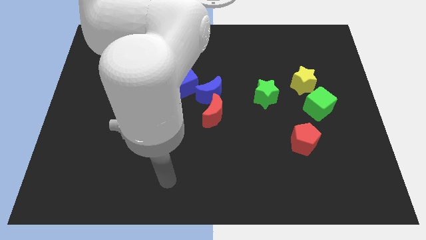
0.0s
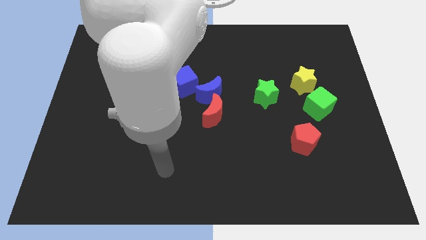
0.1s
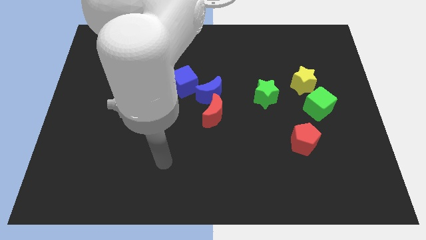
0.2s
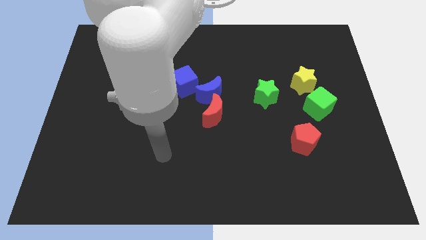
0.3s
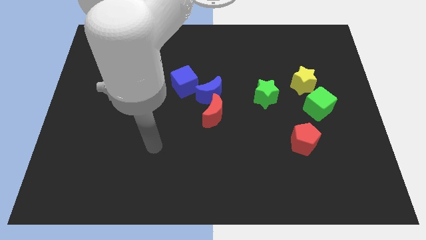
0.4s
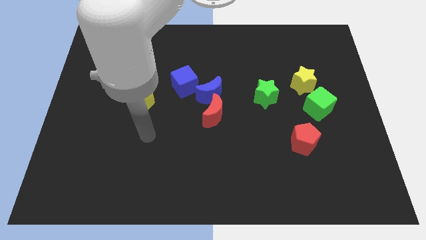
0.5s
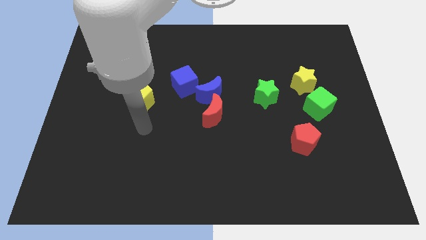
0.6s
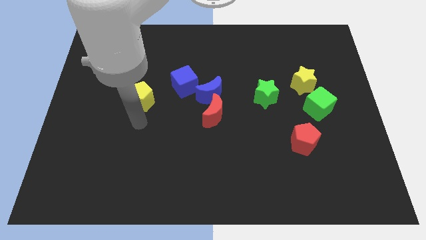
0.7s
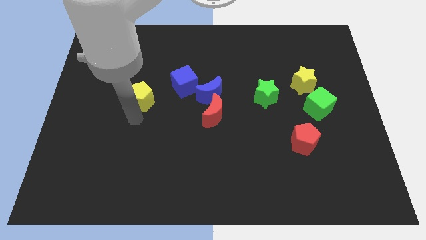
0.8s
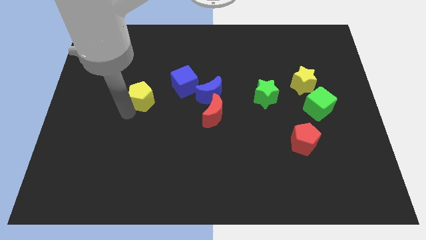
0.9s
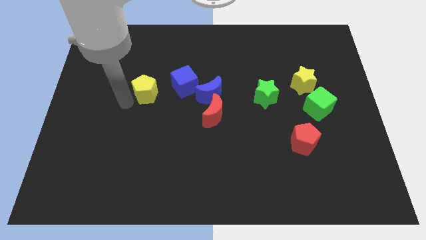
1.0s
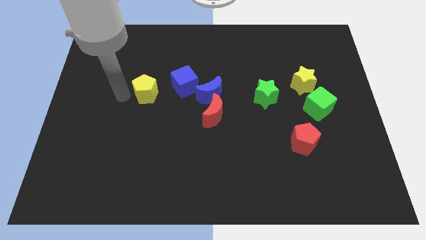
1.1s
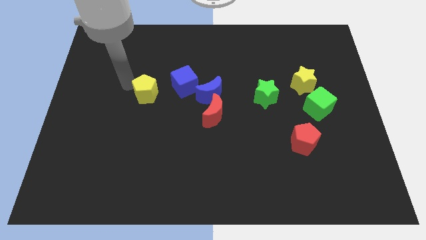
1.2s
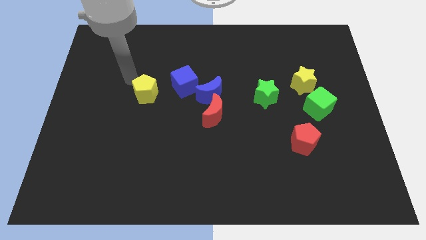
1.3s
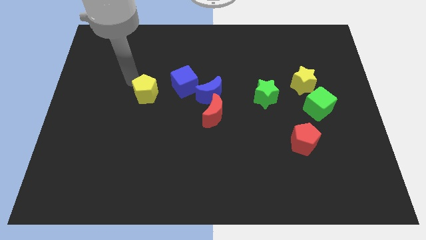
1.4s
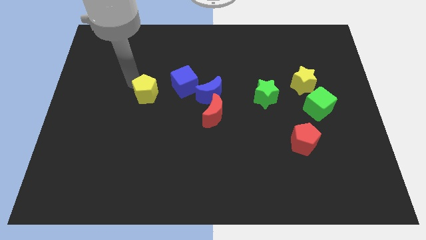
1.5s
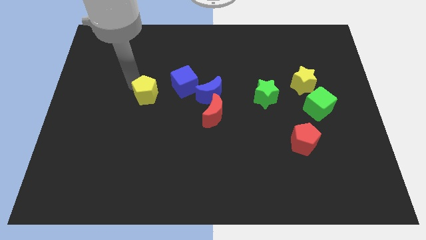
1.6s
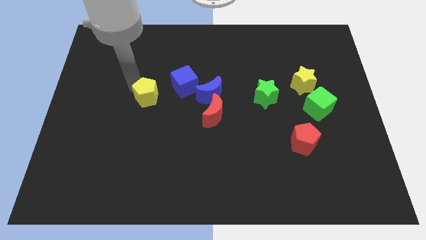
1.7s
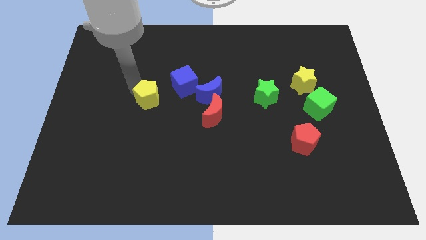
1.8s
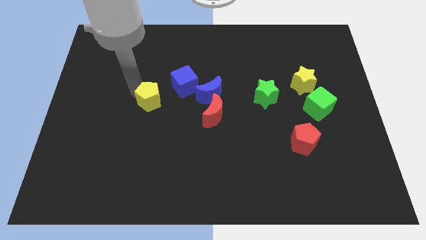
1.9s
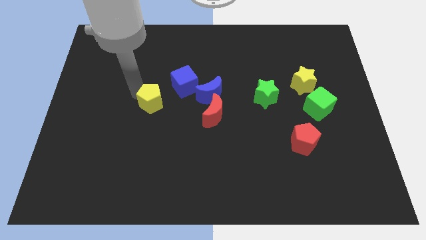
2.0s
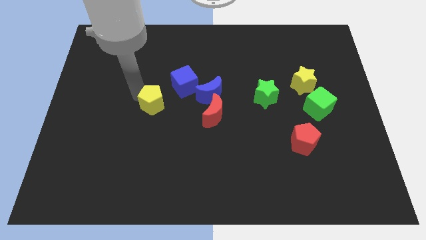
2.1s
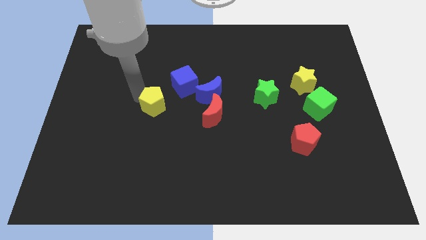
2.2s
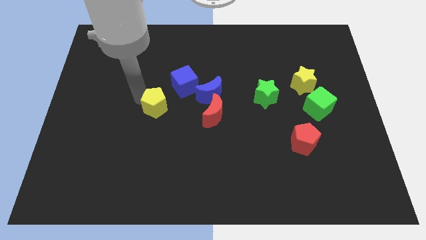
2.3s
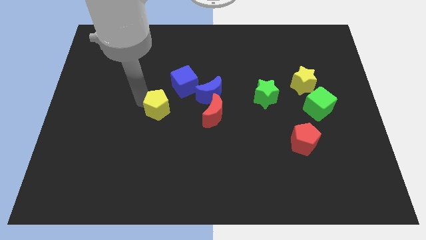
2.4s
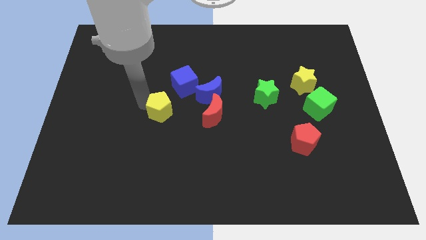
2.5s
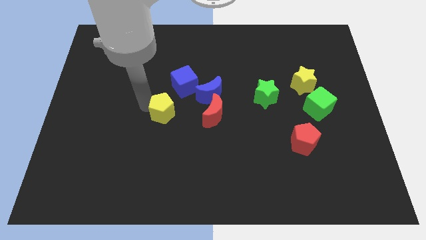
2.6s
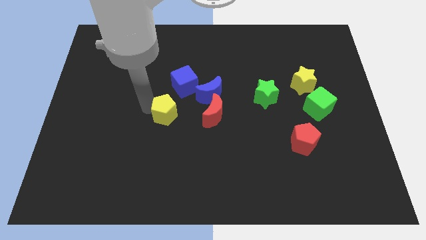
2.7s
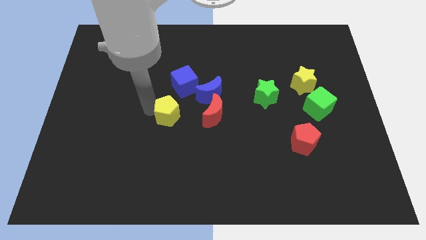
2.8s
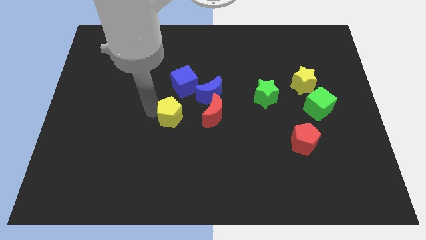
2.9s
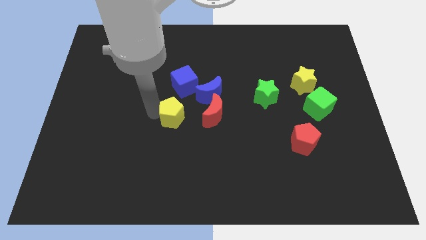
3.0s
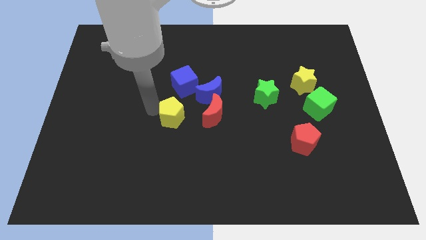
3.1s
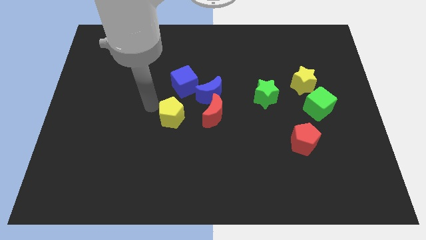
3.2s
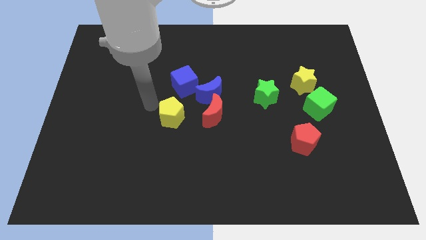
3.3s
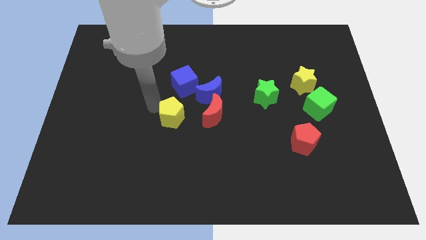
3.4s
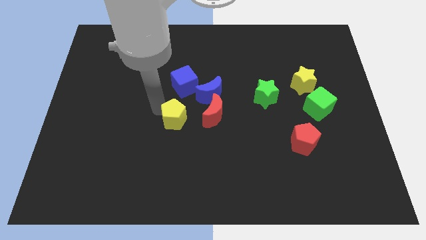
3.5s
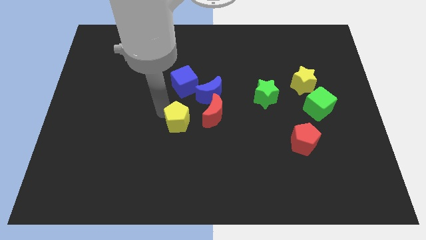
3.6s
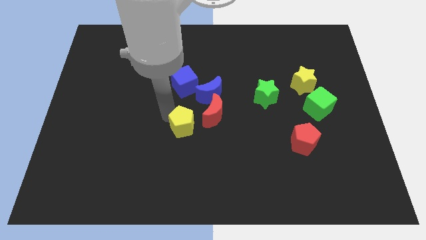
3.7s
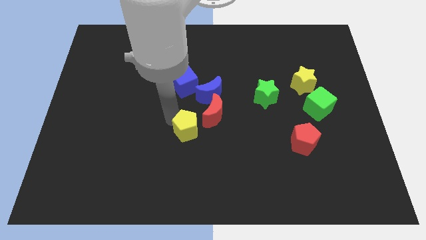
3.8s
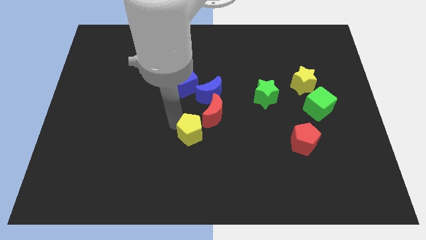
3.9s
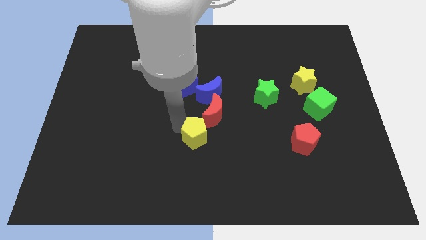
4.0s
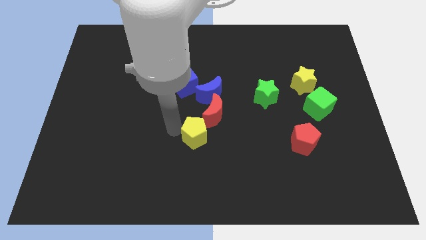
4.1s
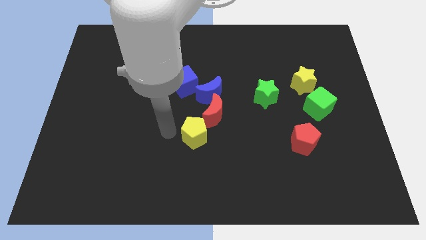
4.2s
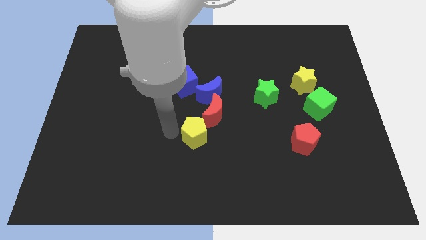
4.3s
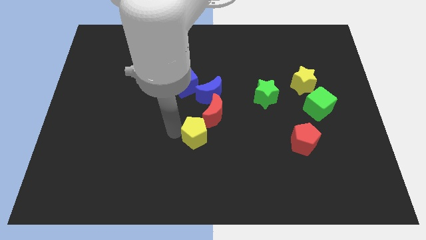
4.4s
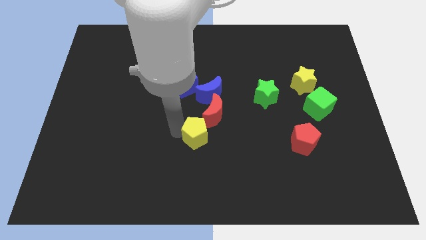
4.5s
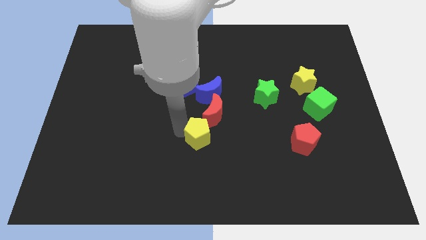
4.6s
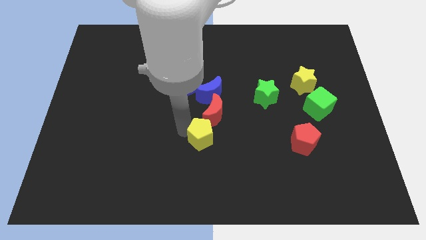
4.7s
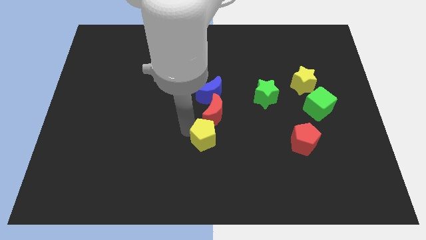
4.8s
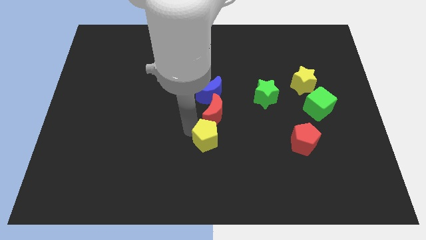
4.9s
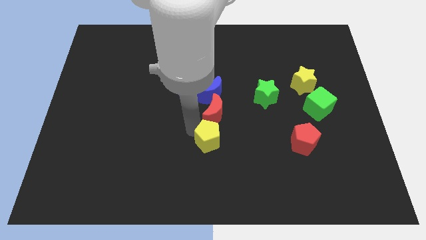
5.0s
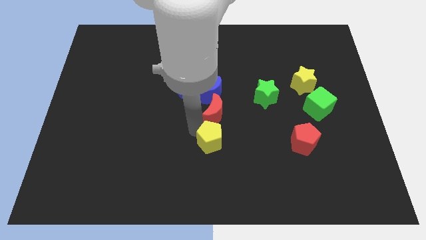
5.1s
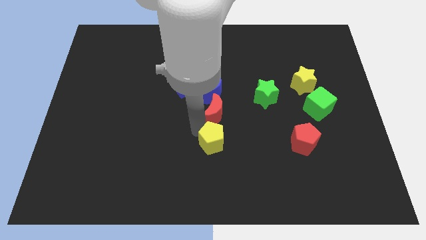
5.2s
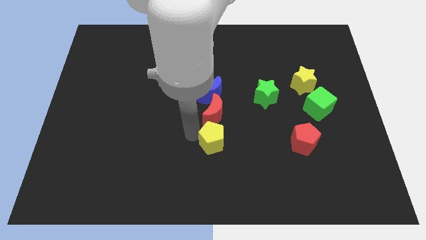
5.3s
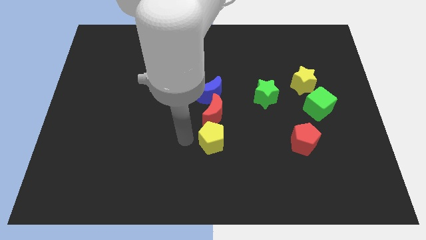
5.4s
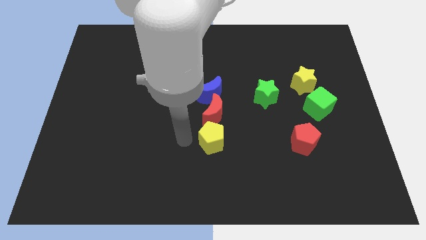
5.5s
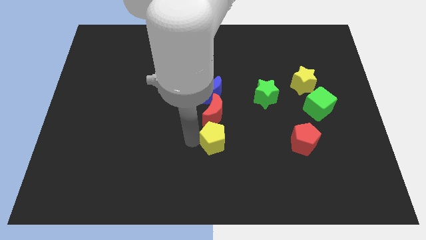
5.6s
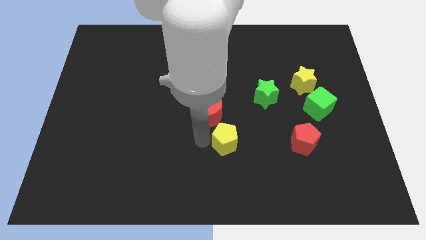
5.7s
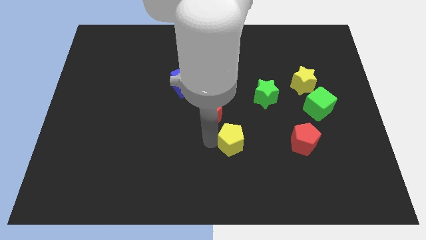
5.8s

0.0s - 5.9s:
slide the yellow pentagon left of the red pentagon

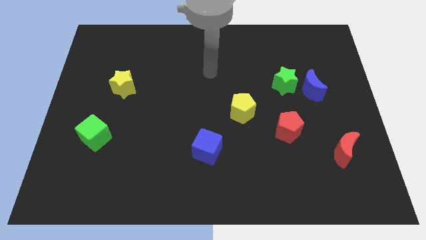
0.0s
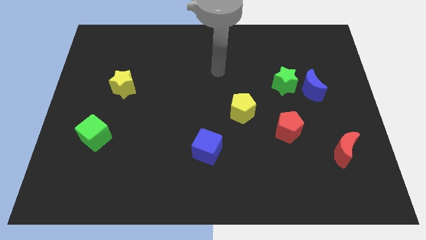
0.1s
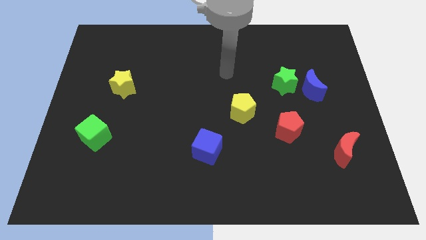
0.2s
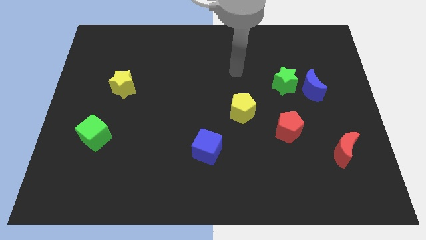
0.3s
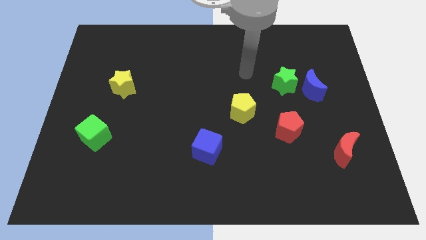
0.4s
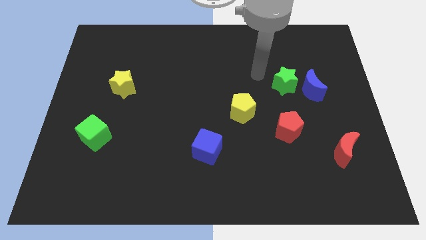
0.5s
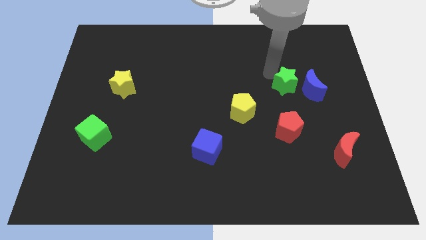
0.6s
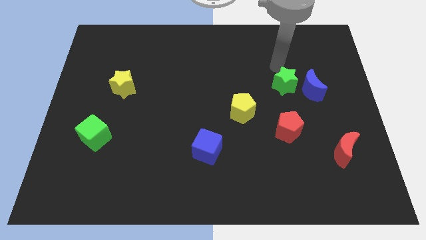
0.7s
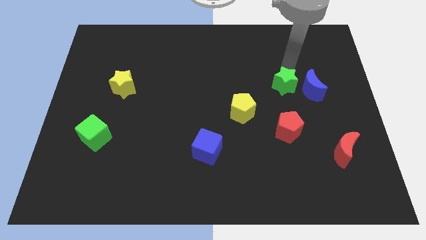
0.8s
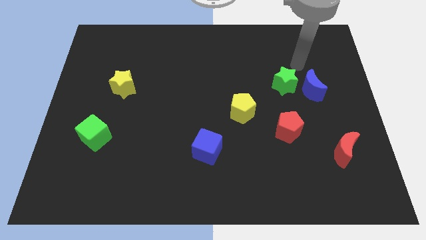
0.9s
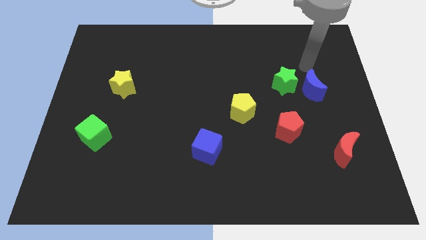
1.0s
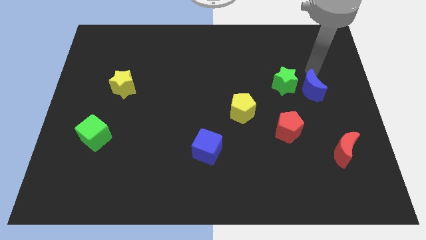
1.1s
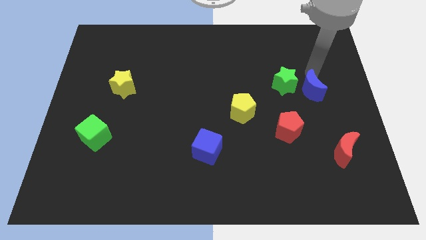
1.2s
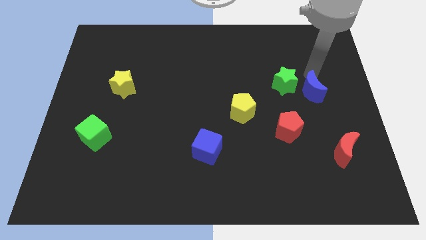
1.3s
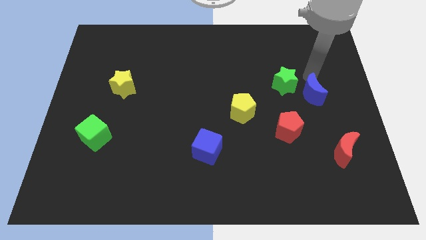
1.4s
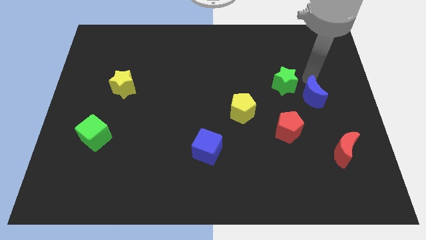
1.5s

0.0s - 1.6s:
slide the blue moon to the top right side of the red pentagon
